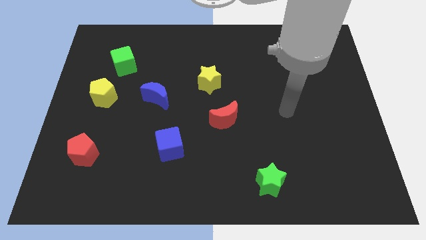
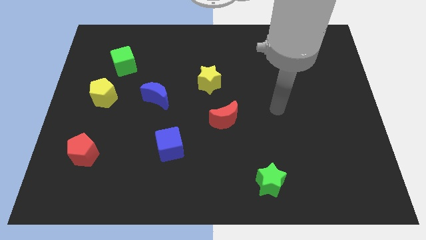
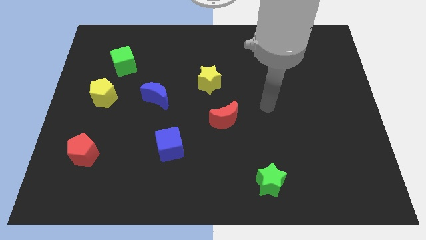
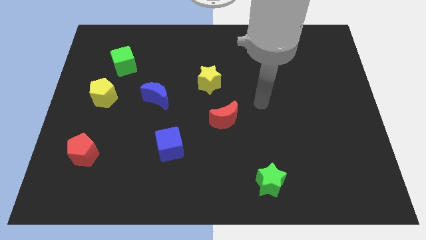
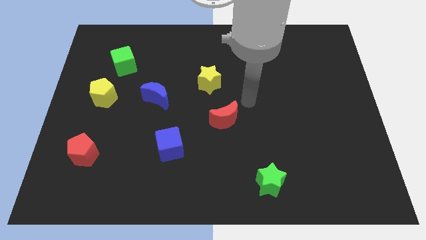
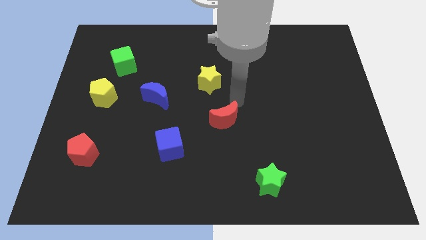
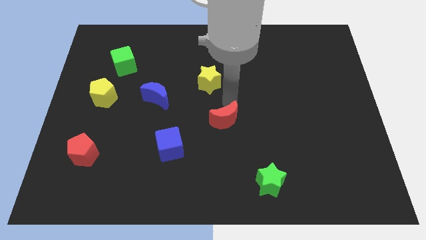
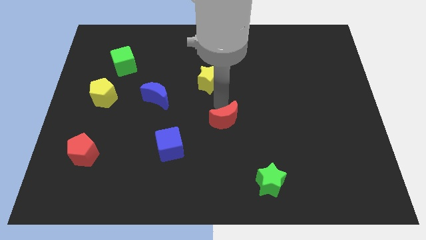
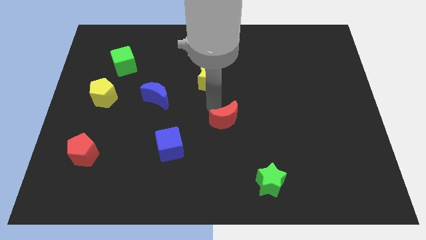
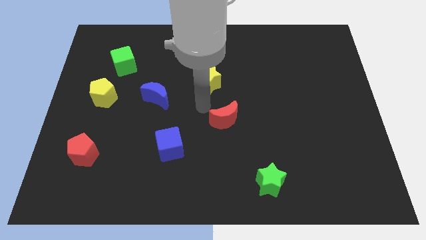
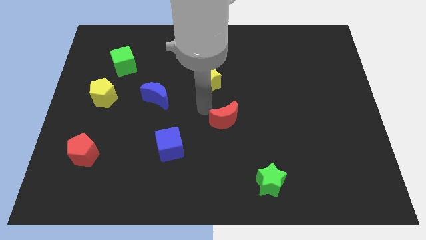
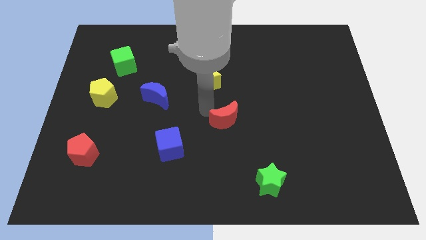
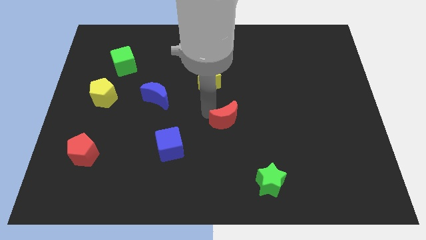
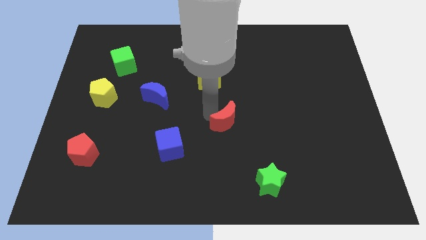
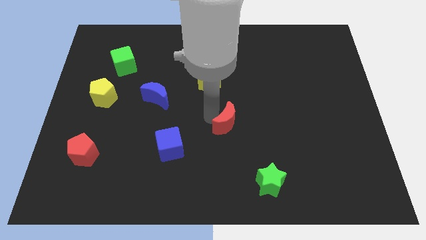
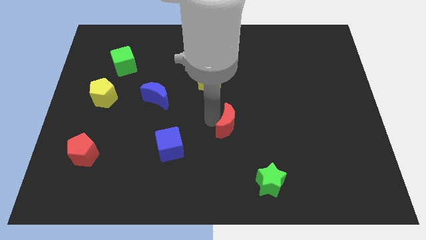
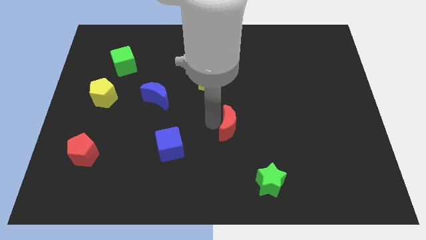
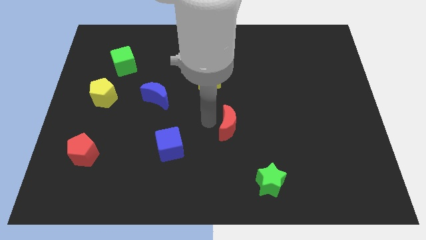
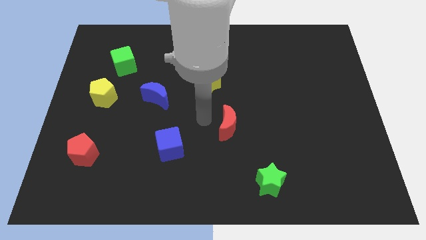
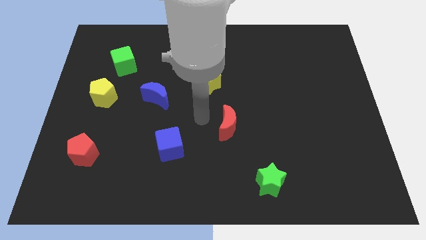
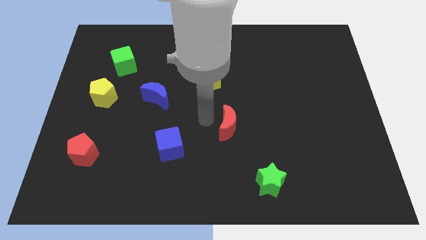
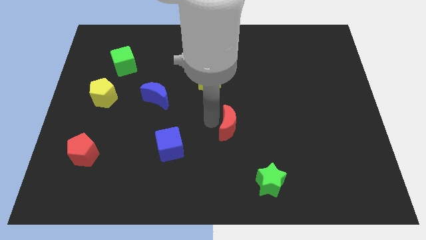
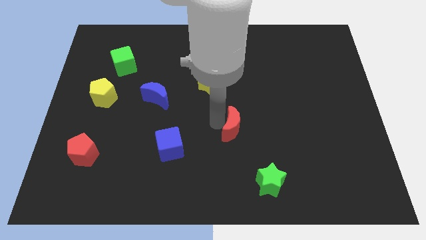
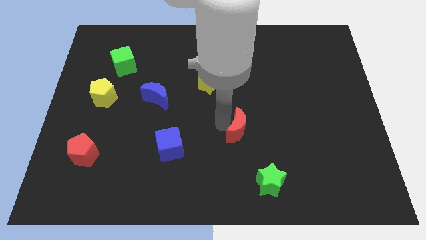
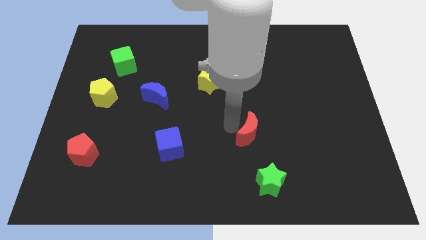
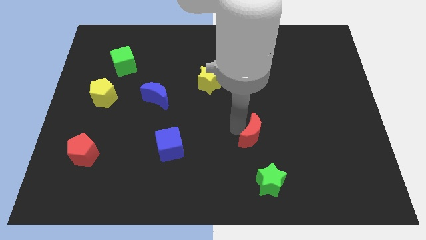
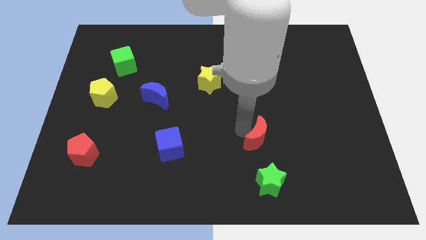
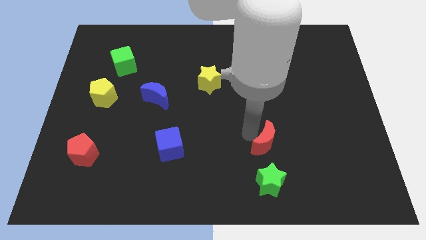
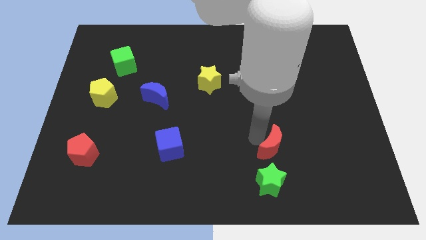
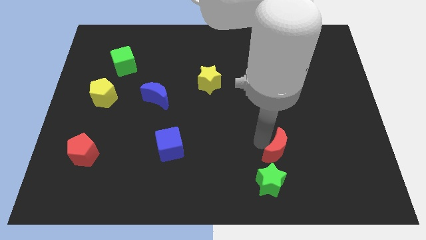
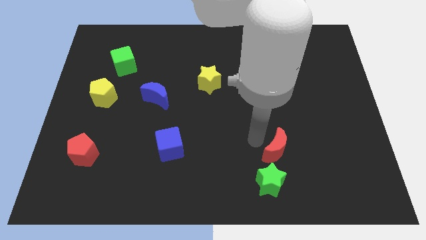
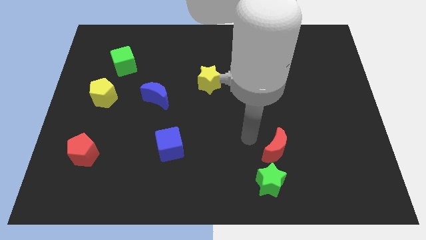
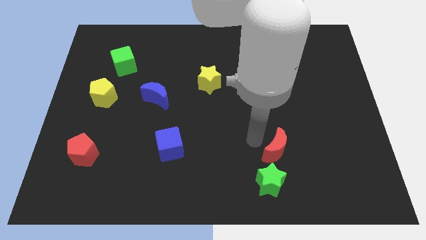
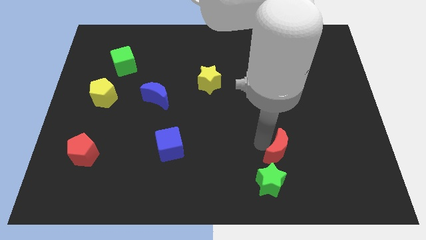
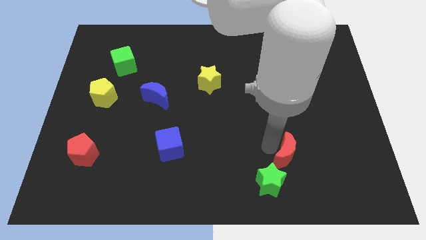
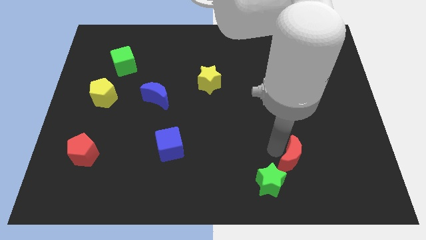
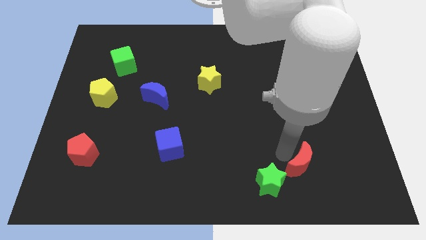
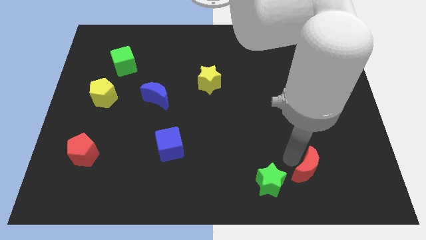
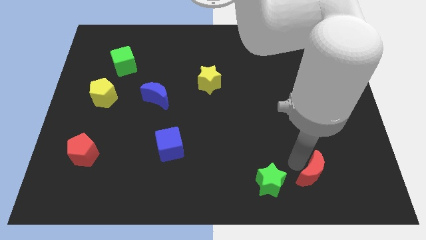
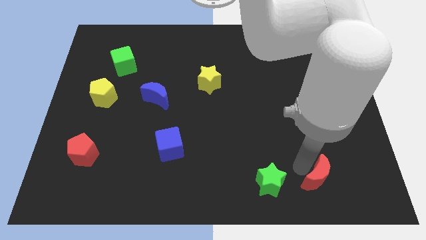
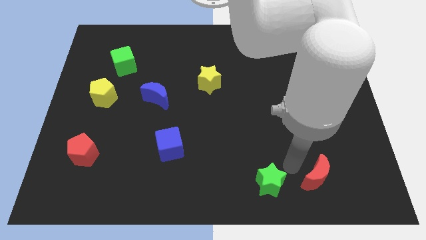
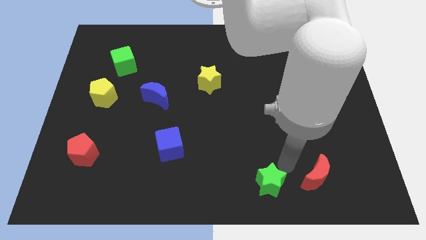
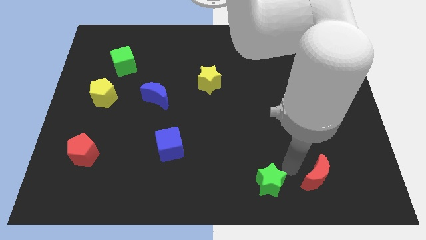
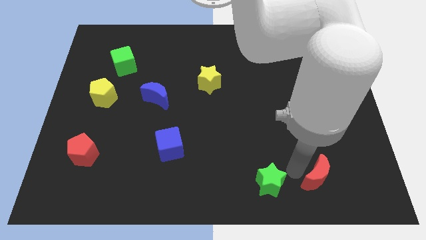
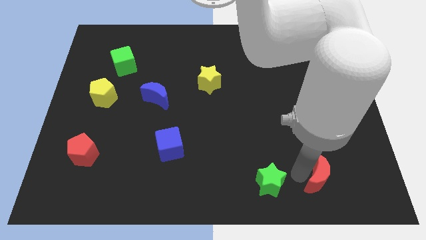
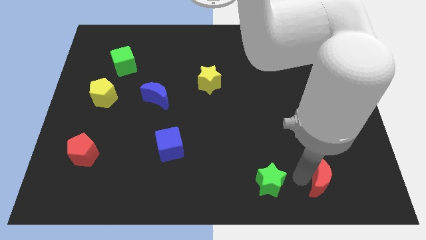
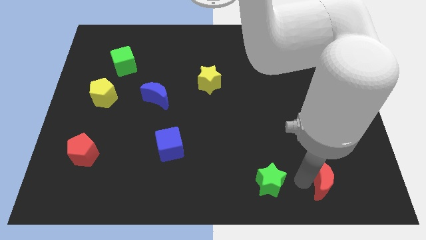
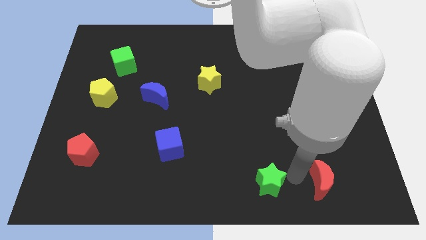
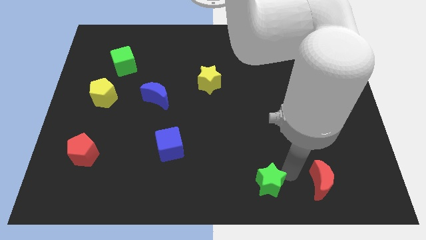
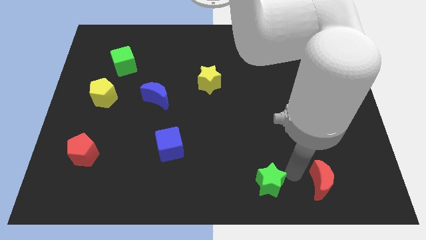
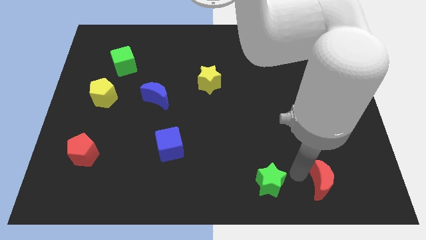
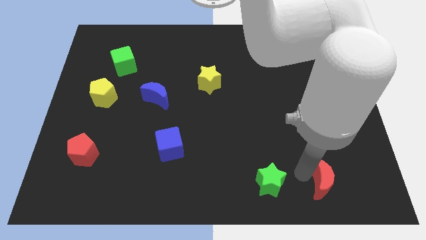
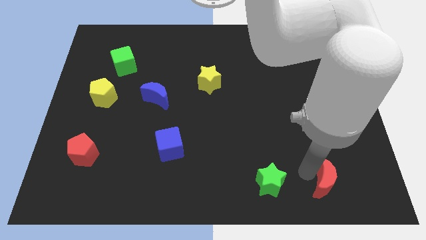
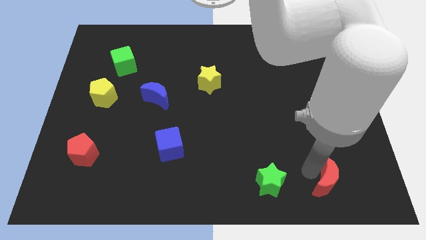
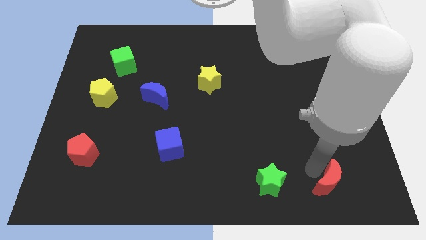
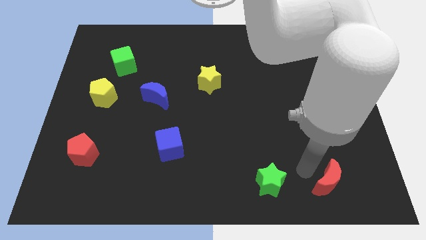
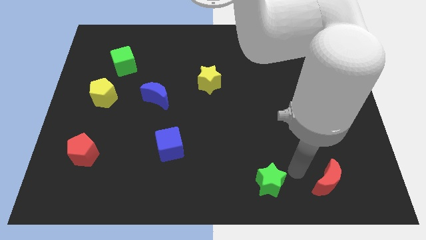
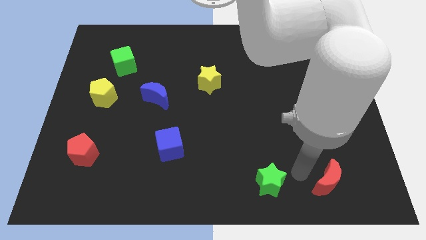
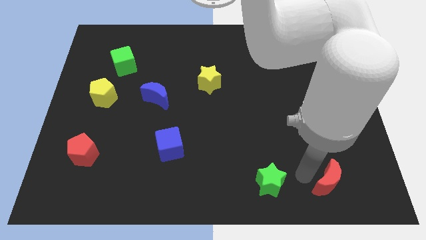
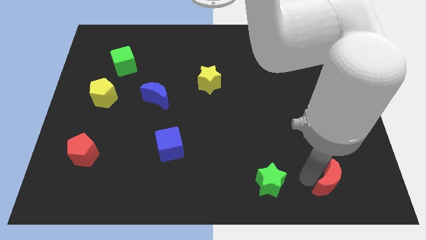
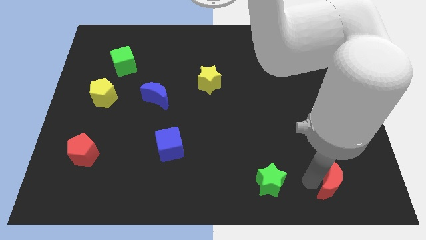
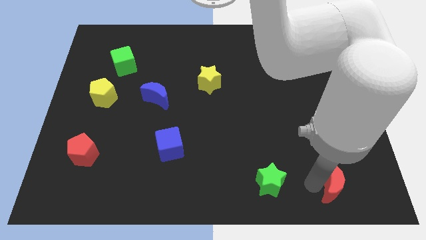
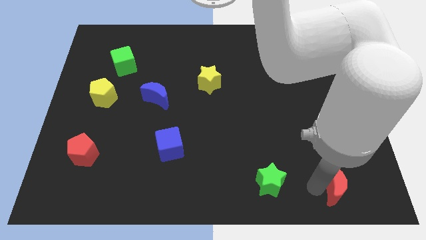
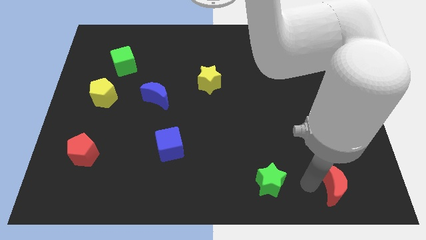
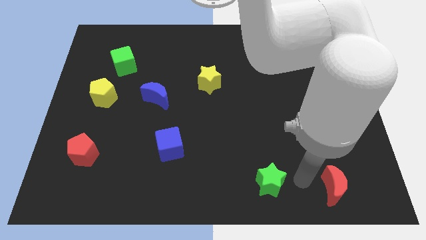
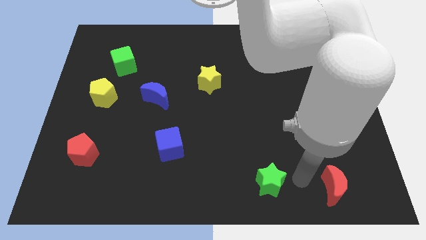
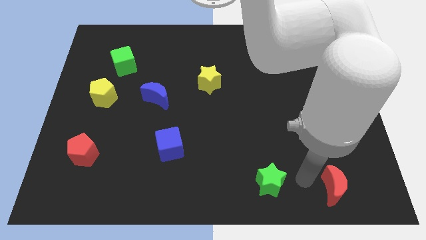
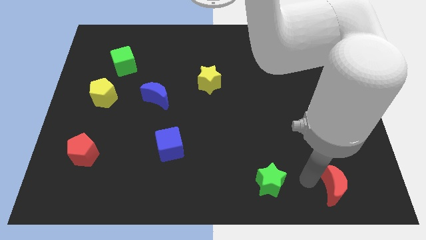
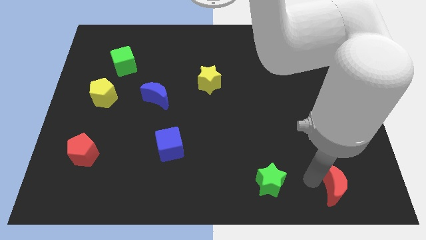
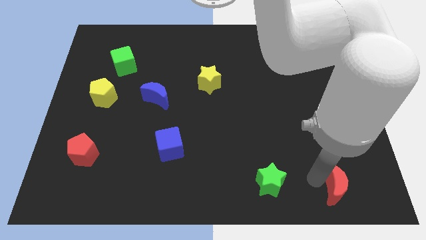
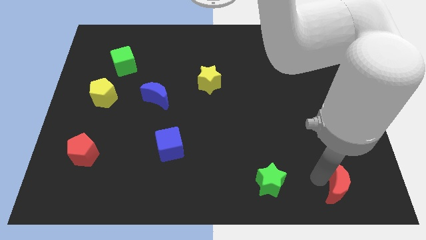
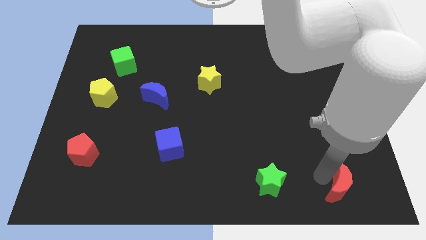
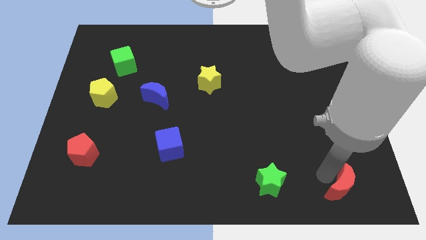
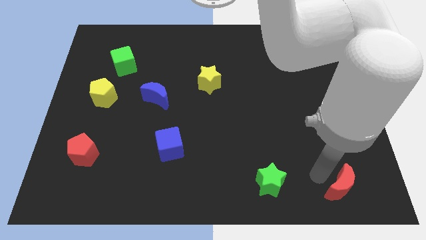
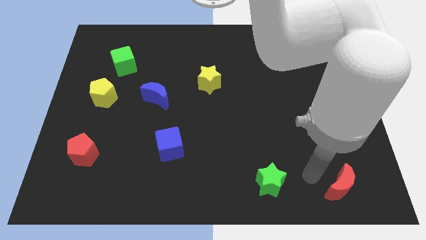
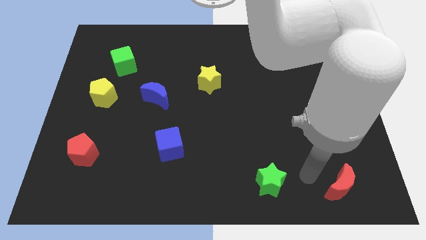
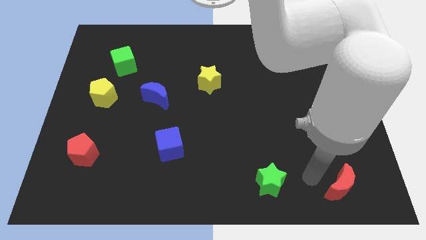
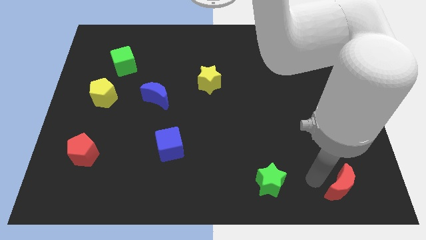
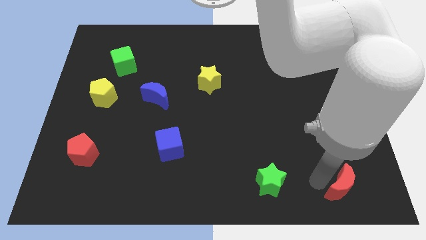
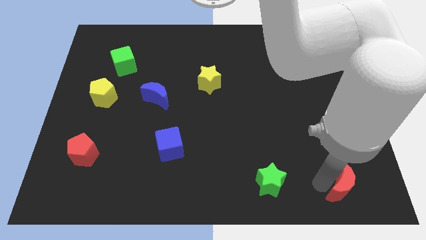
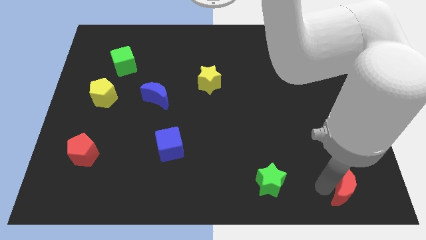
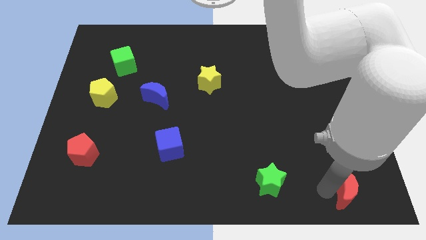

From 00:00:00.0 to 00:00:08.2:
put the red moon to the bottom right
